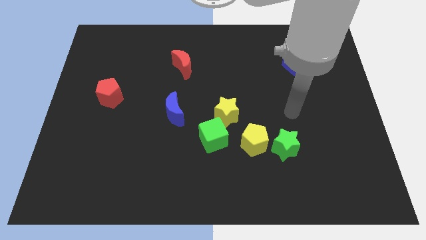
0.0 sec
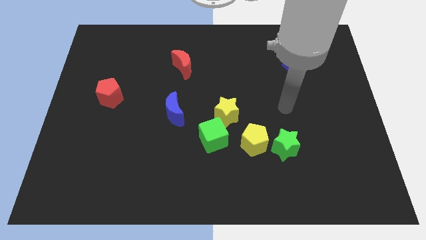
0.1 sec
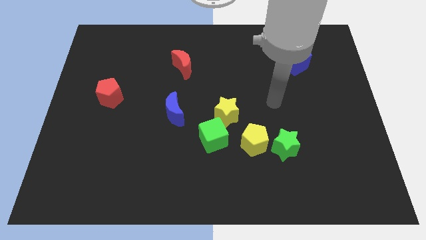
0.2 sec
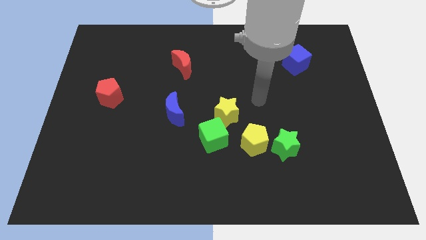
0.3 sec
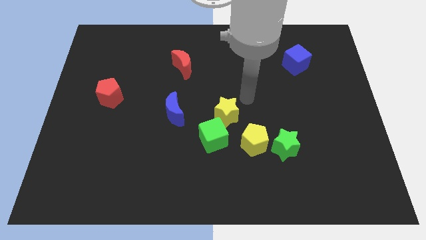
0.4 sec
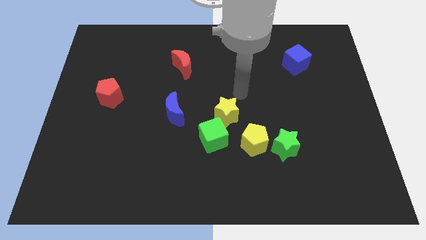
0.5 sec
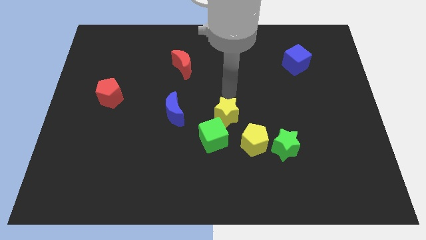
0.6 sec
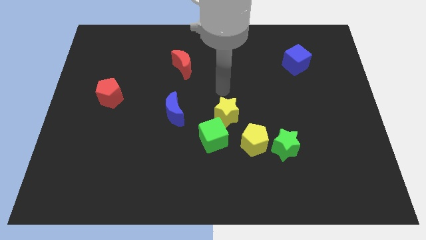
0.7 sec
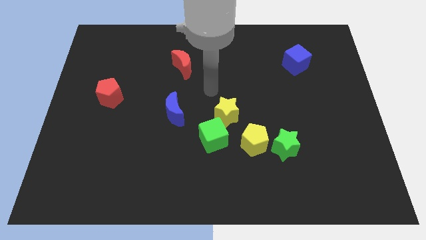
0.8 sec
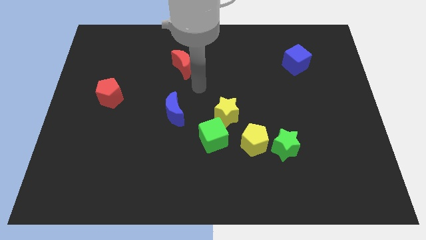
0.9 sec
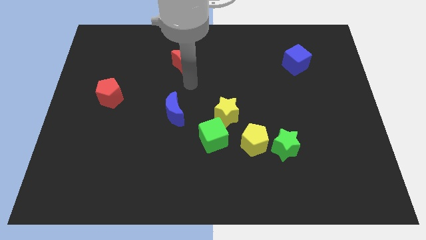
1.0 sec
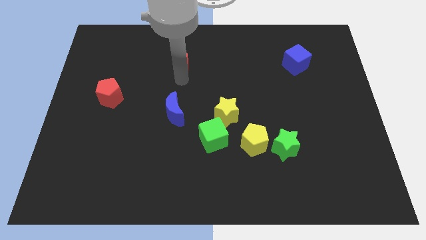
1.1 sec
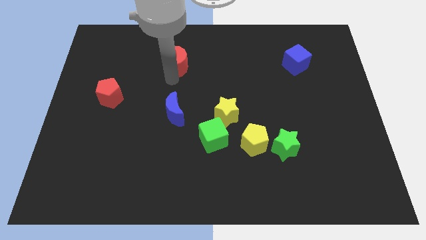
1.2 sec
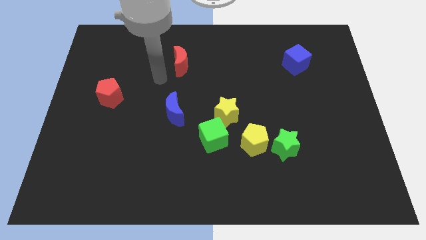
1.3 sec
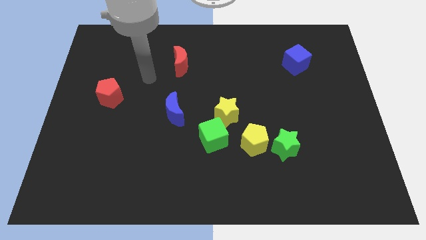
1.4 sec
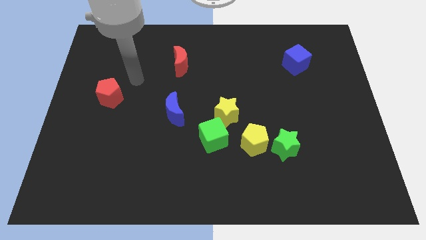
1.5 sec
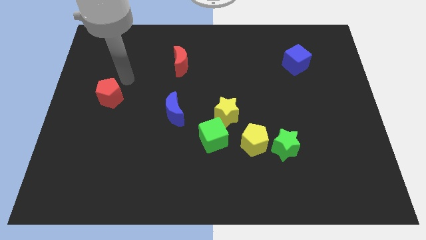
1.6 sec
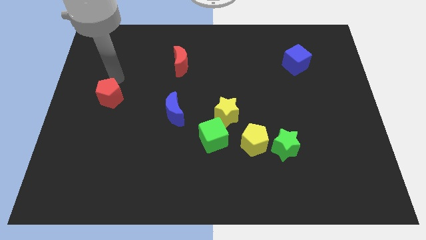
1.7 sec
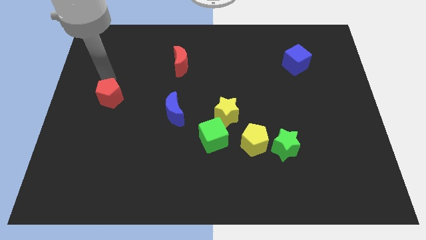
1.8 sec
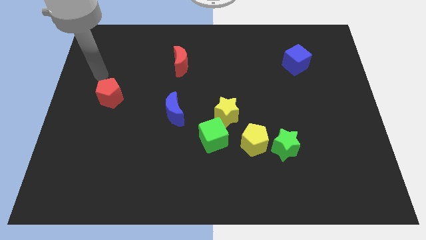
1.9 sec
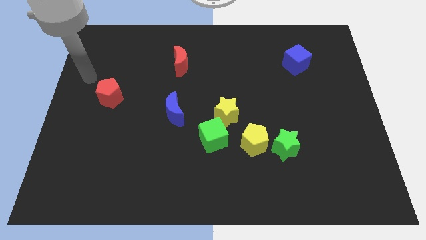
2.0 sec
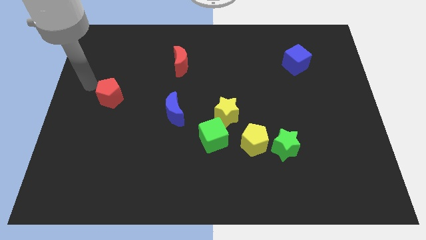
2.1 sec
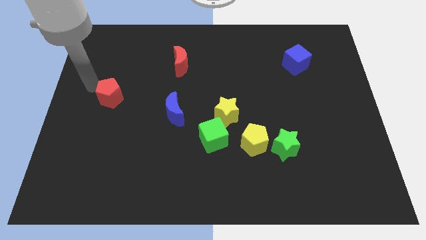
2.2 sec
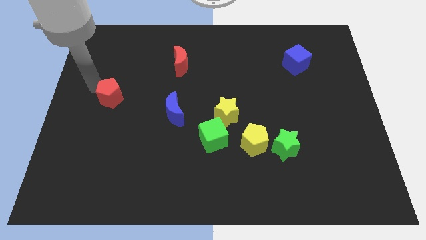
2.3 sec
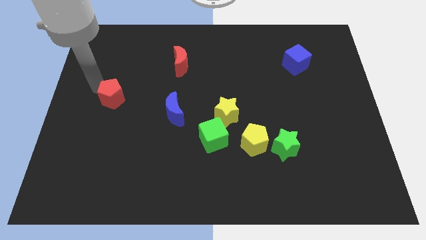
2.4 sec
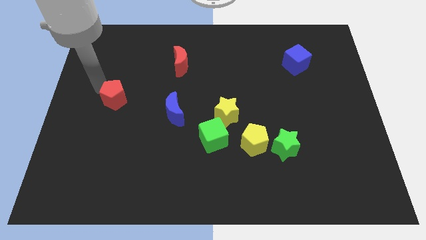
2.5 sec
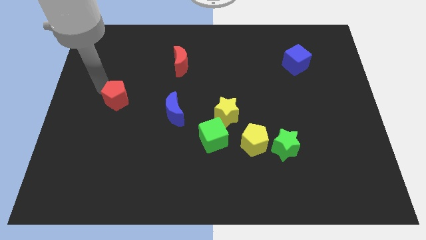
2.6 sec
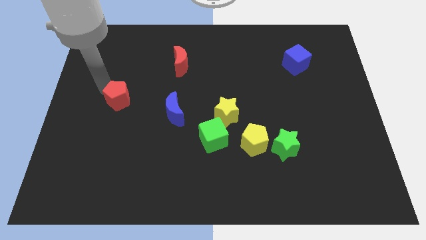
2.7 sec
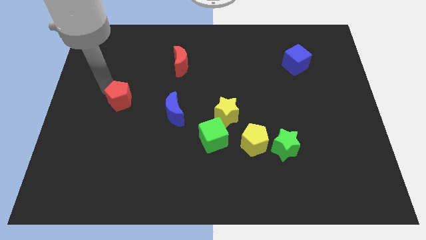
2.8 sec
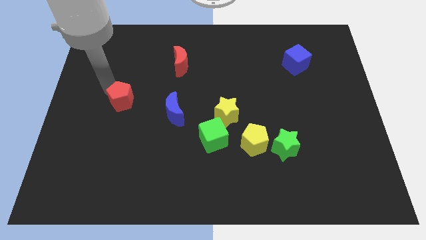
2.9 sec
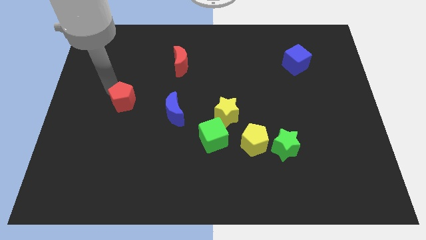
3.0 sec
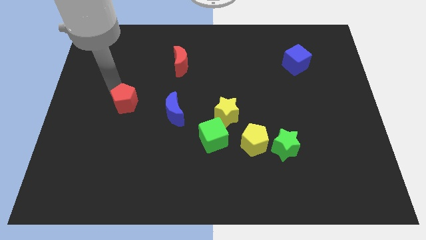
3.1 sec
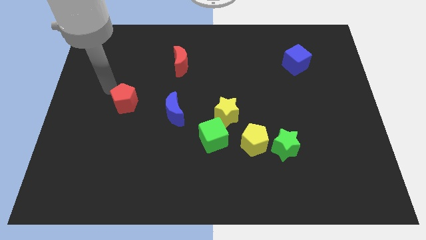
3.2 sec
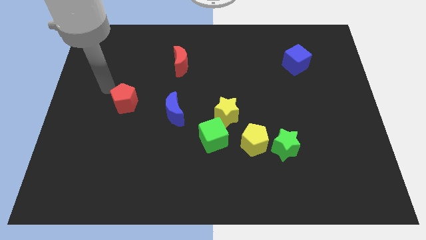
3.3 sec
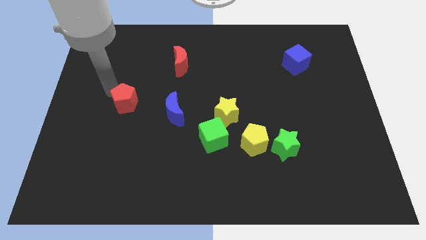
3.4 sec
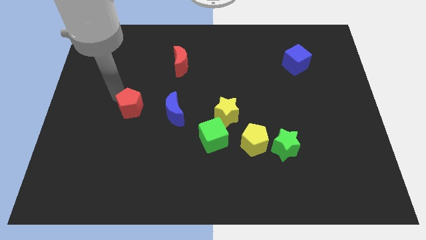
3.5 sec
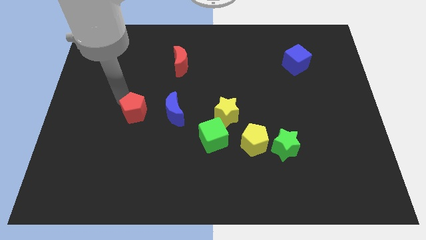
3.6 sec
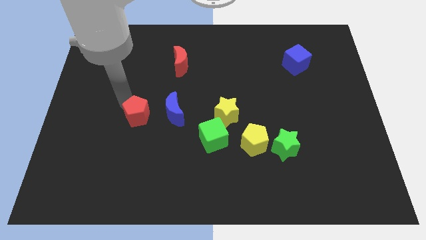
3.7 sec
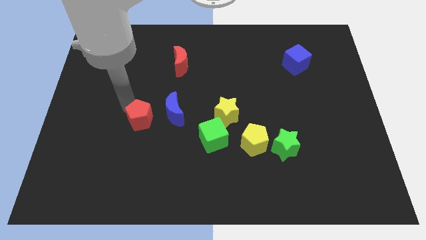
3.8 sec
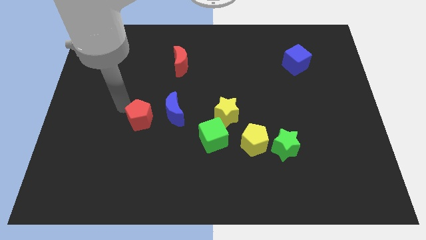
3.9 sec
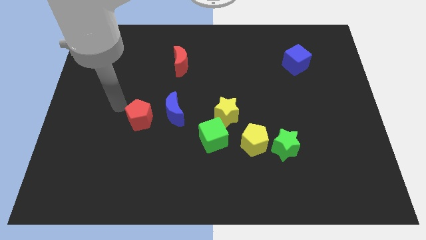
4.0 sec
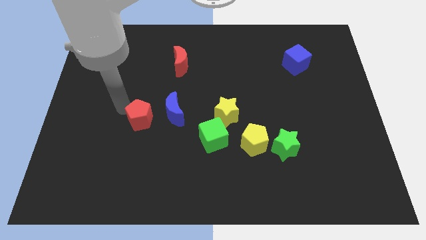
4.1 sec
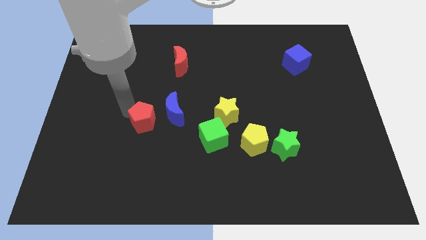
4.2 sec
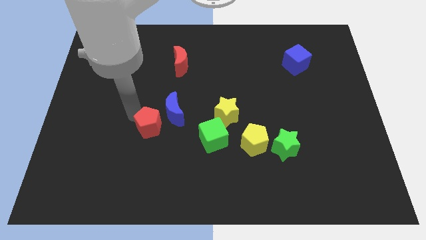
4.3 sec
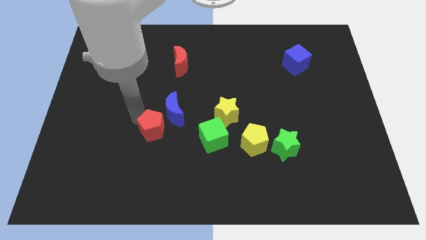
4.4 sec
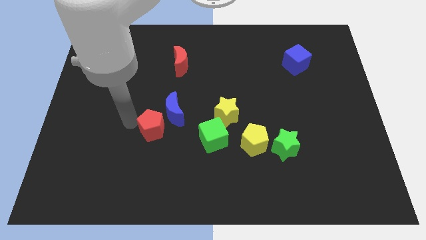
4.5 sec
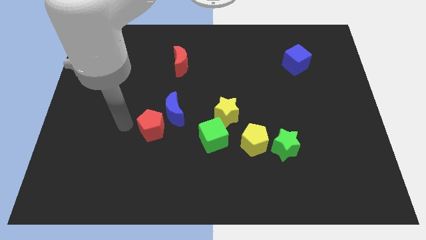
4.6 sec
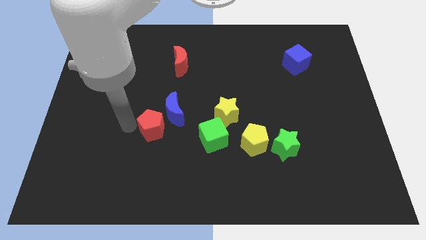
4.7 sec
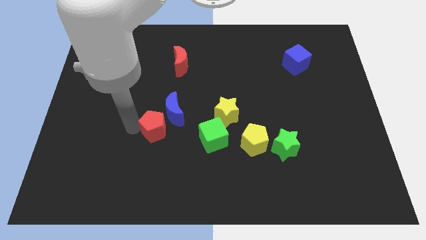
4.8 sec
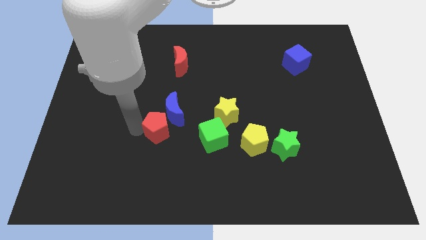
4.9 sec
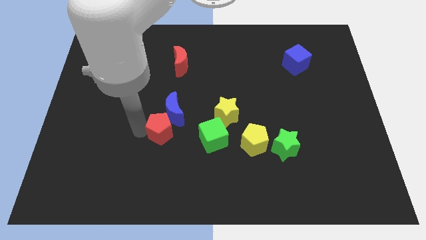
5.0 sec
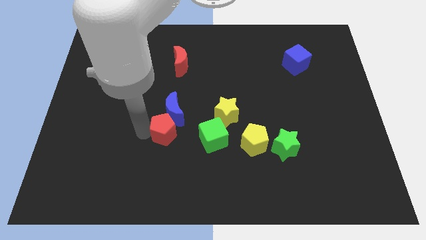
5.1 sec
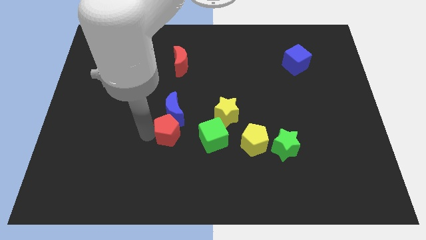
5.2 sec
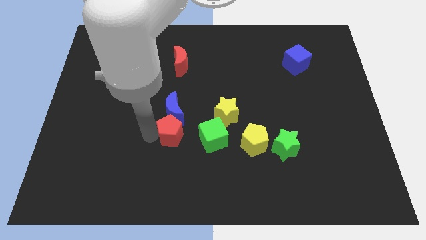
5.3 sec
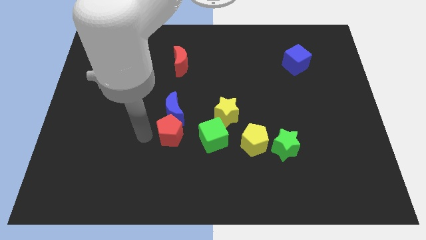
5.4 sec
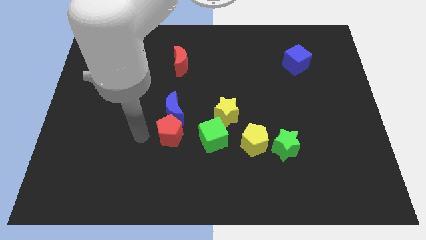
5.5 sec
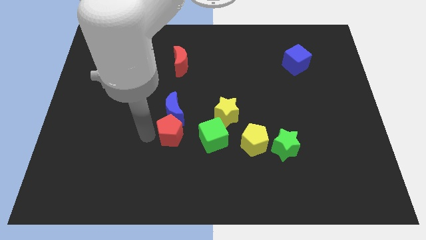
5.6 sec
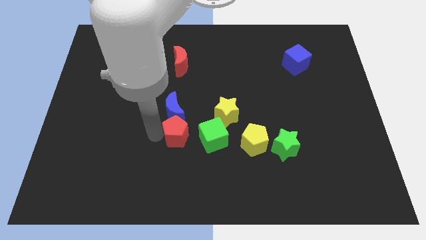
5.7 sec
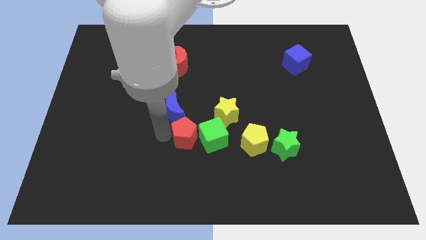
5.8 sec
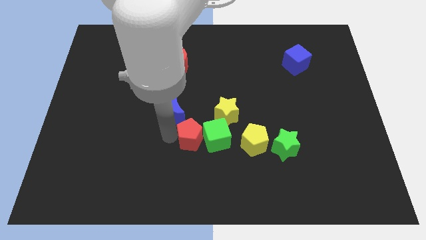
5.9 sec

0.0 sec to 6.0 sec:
push the red pentagon close to the green cube

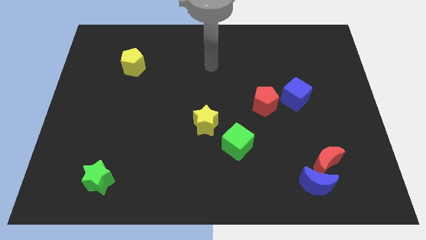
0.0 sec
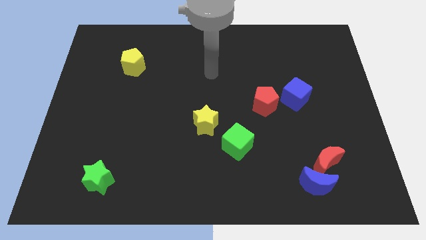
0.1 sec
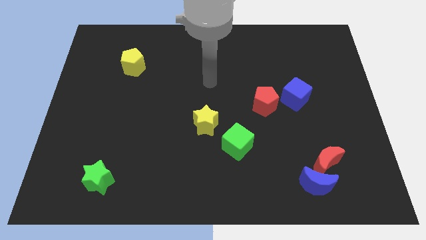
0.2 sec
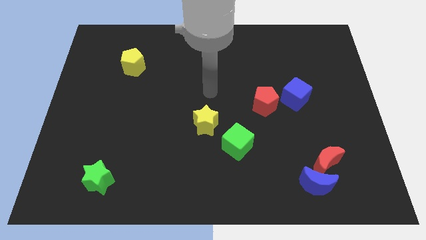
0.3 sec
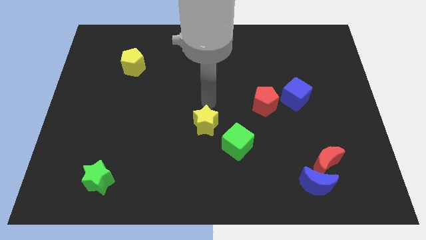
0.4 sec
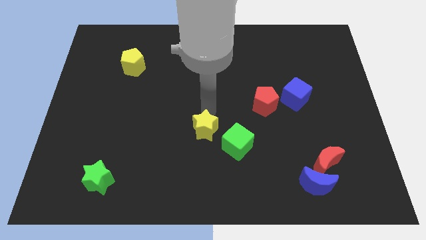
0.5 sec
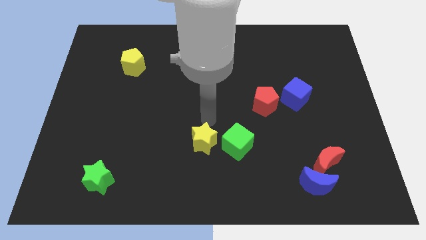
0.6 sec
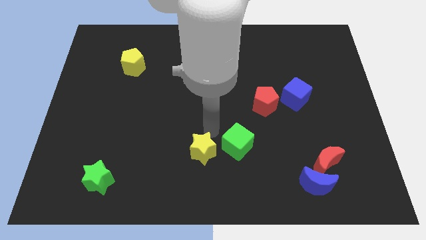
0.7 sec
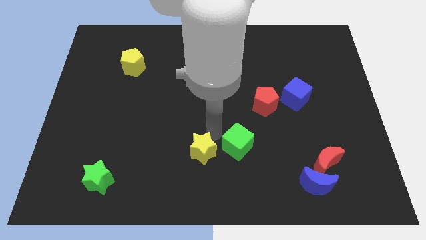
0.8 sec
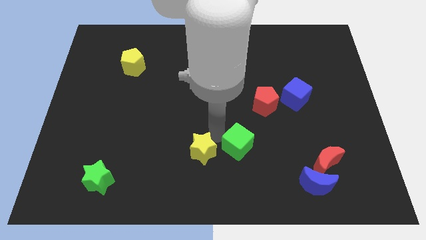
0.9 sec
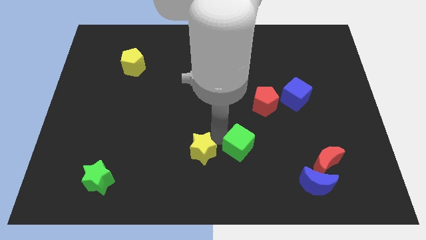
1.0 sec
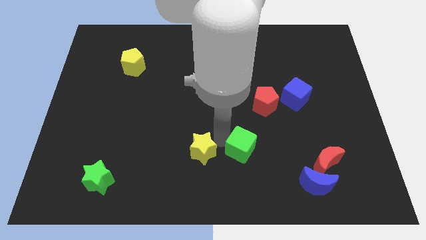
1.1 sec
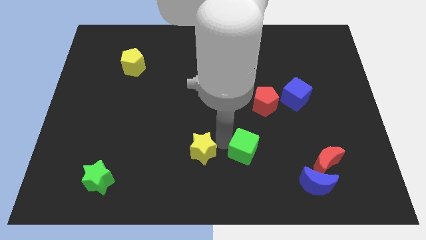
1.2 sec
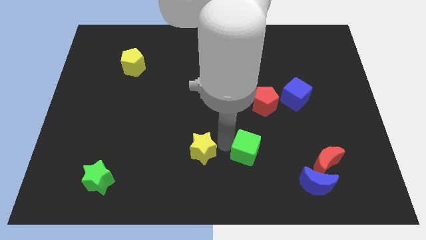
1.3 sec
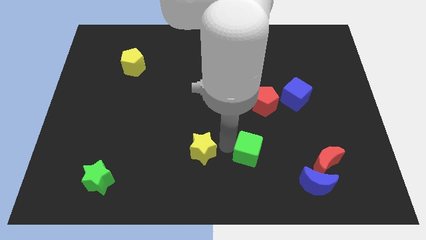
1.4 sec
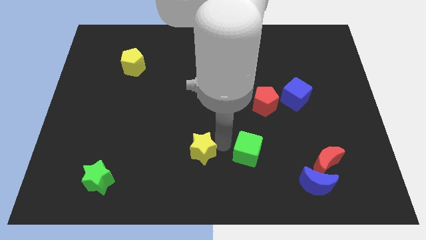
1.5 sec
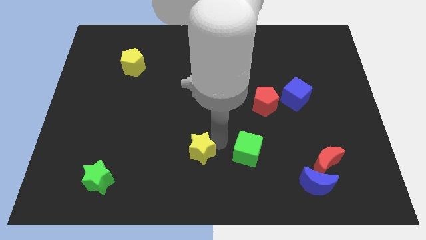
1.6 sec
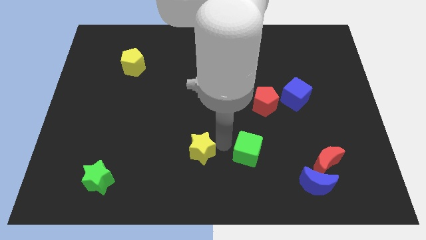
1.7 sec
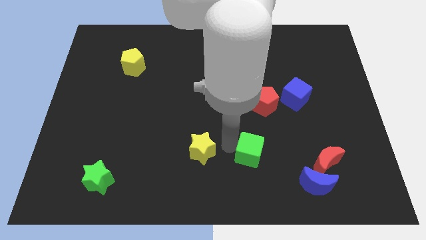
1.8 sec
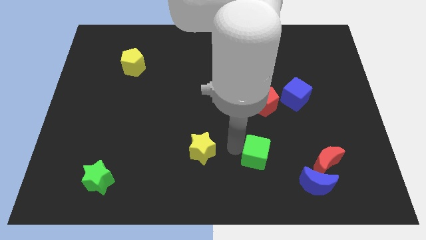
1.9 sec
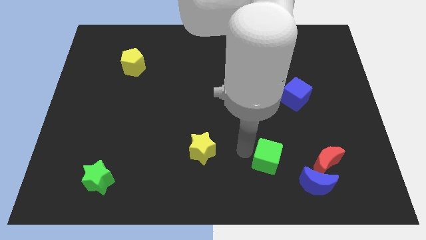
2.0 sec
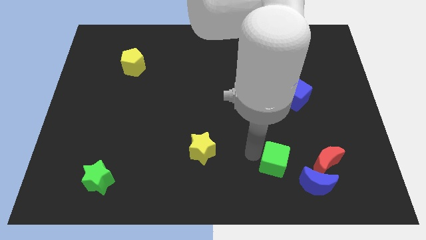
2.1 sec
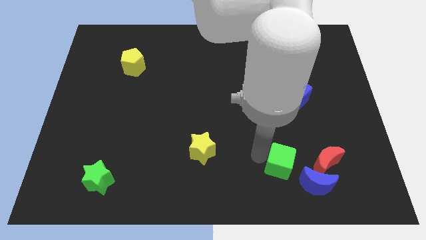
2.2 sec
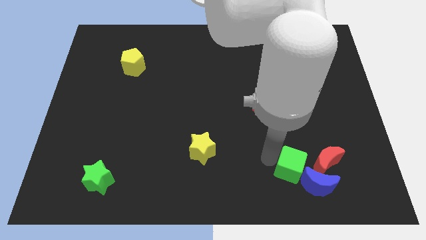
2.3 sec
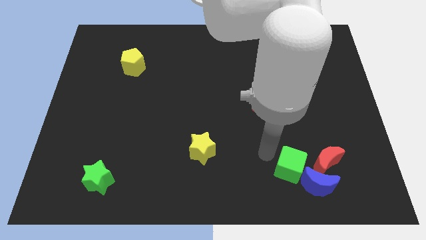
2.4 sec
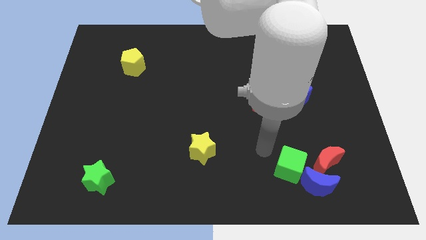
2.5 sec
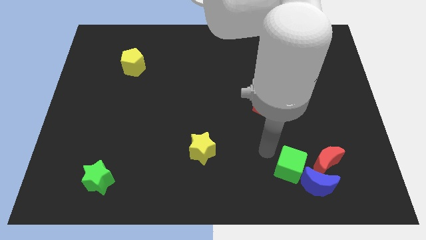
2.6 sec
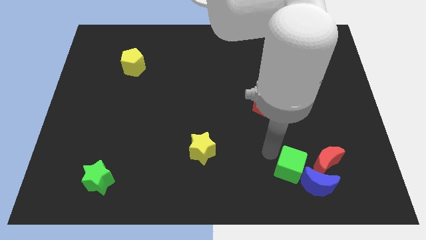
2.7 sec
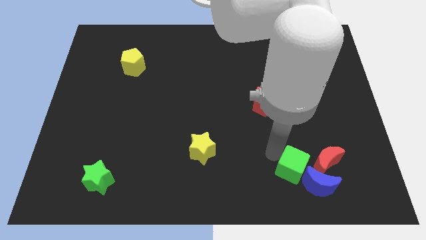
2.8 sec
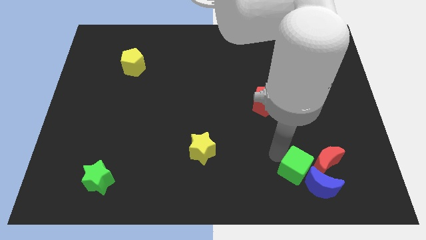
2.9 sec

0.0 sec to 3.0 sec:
put the green cube towards the blue moon
